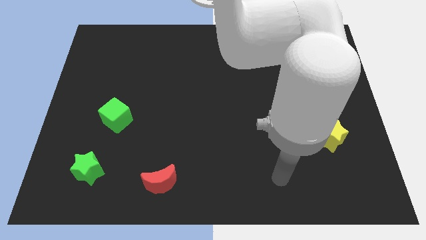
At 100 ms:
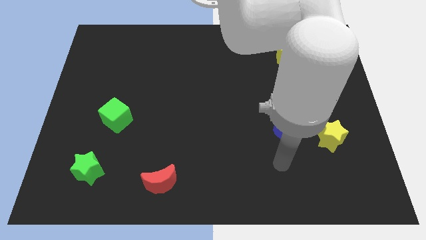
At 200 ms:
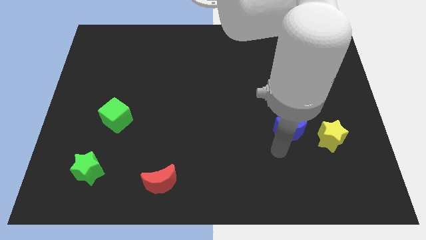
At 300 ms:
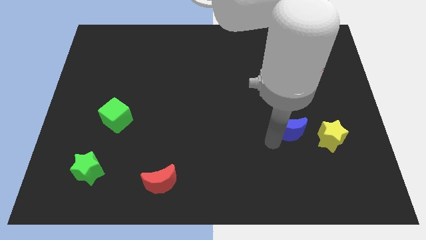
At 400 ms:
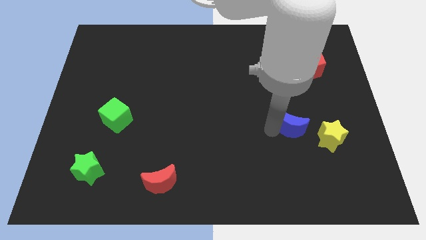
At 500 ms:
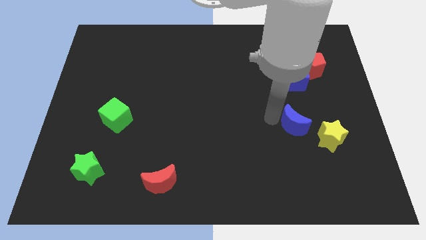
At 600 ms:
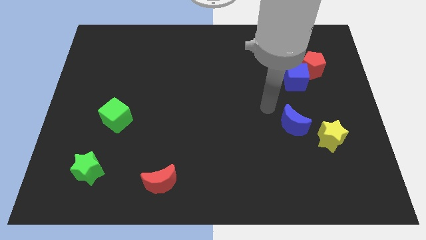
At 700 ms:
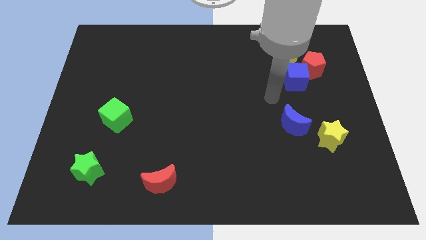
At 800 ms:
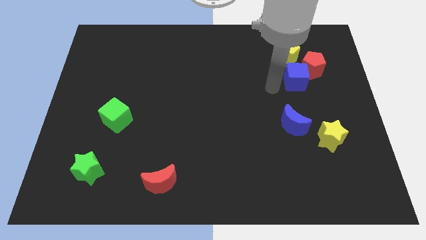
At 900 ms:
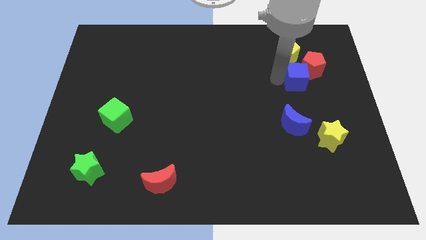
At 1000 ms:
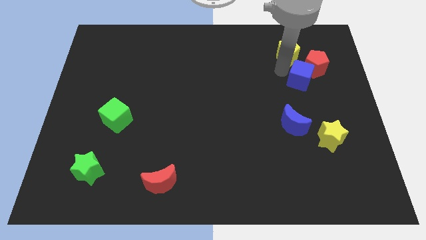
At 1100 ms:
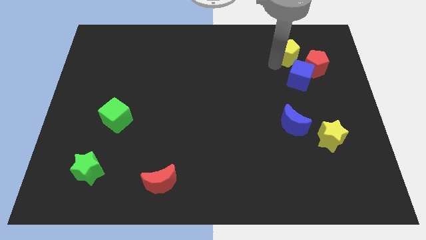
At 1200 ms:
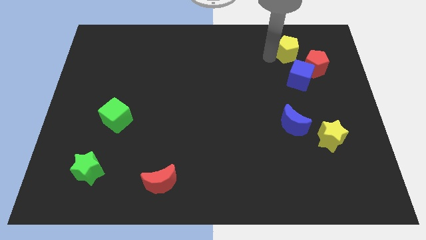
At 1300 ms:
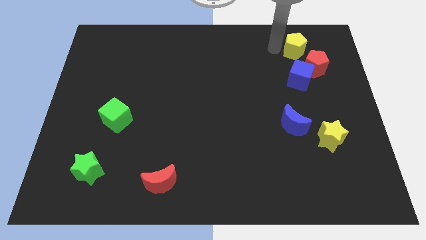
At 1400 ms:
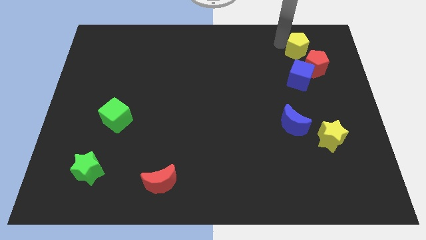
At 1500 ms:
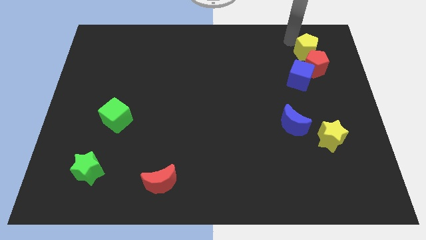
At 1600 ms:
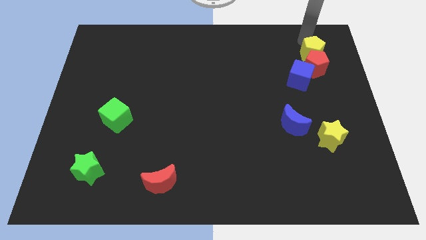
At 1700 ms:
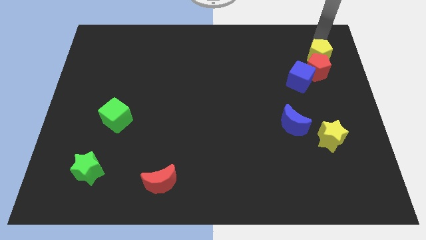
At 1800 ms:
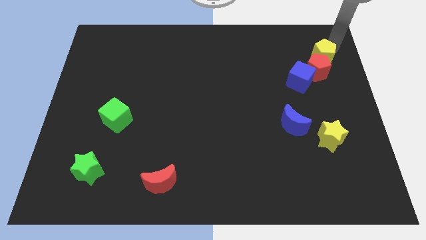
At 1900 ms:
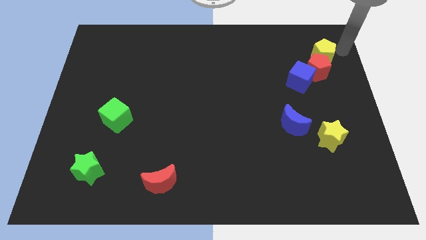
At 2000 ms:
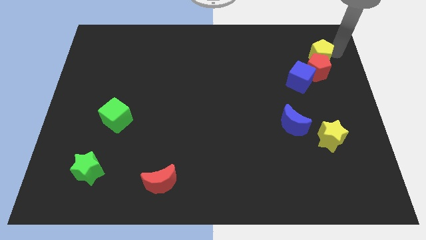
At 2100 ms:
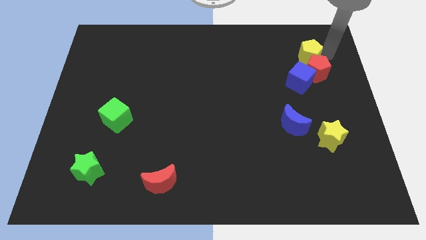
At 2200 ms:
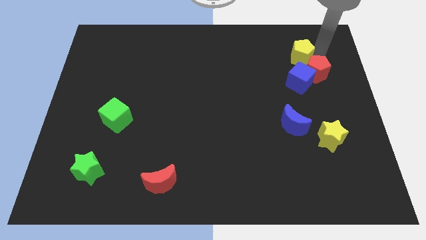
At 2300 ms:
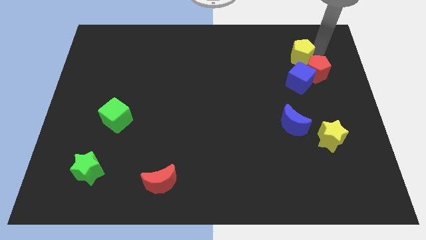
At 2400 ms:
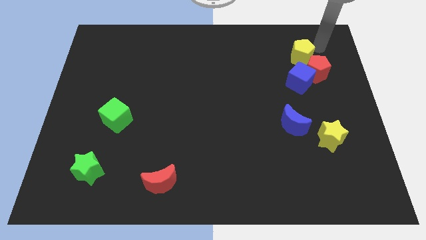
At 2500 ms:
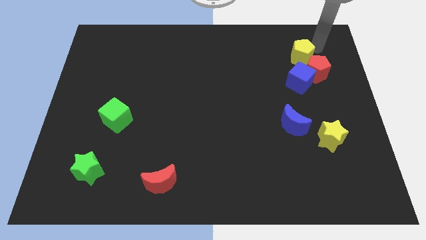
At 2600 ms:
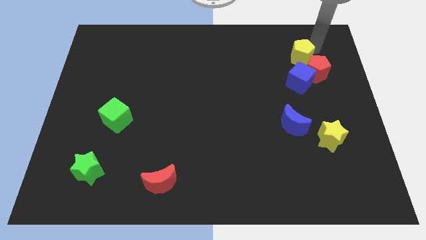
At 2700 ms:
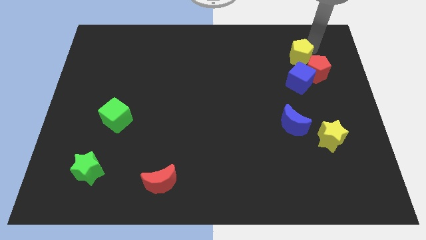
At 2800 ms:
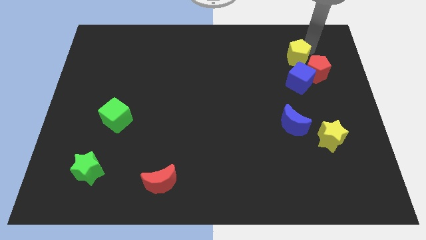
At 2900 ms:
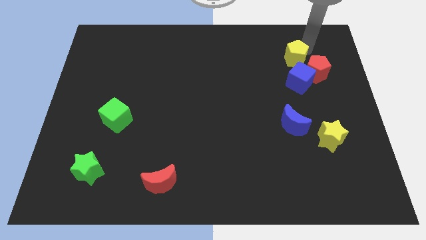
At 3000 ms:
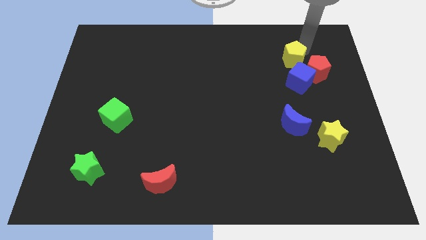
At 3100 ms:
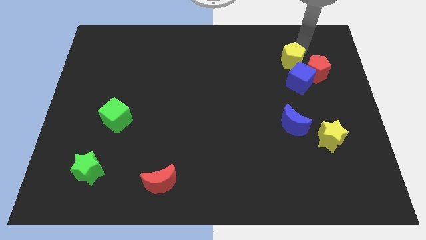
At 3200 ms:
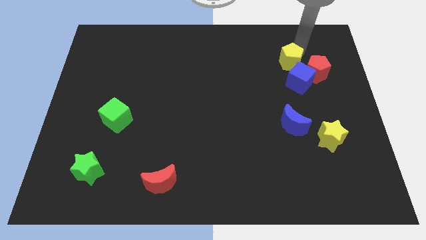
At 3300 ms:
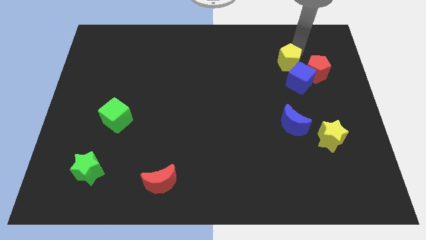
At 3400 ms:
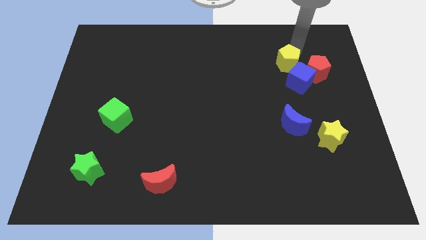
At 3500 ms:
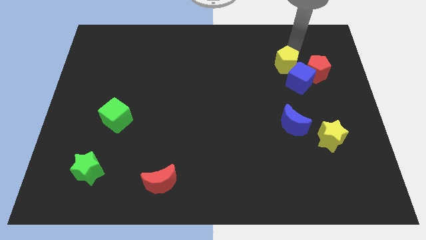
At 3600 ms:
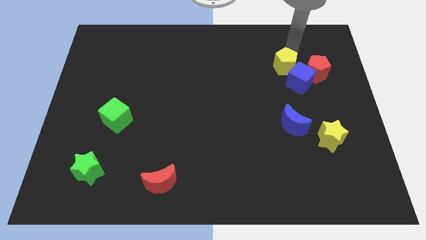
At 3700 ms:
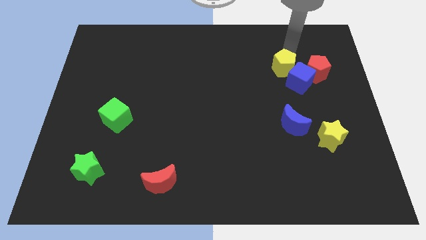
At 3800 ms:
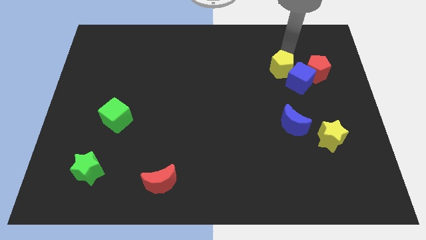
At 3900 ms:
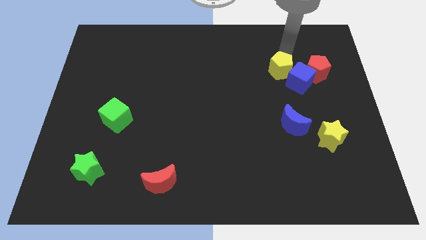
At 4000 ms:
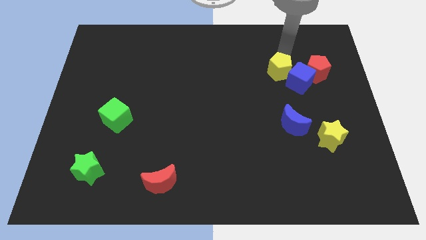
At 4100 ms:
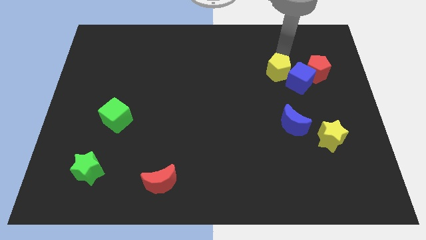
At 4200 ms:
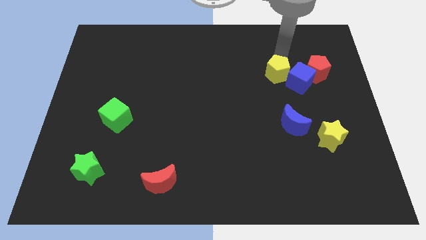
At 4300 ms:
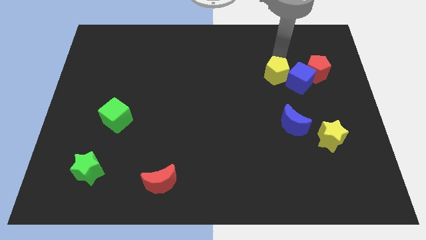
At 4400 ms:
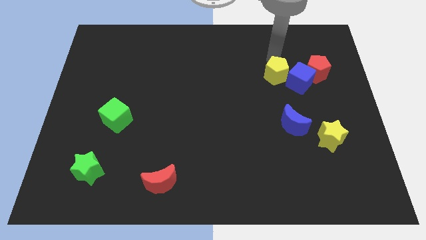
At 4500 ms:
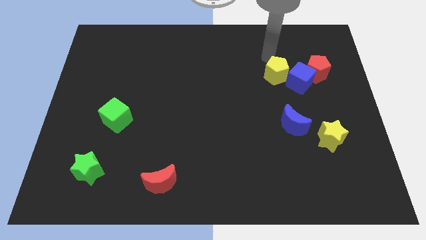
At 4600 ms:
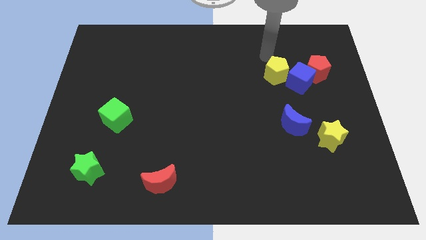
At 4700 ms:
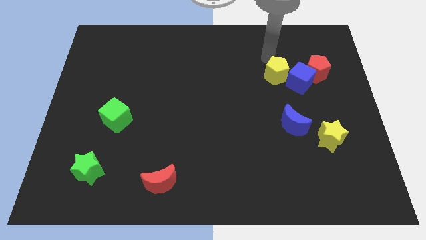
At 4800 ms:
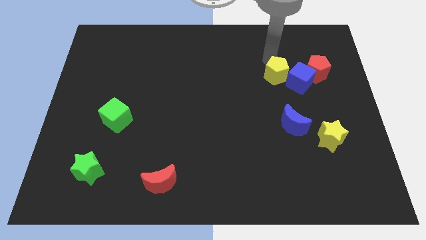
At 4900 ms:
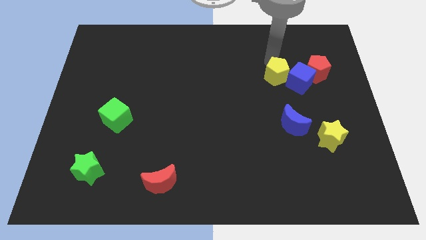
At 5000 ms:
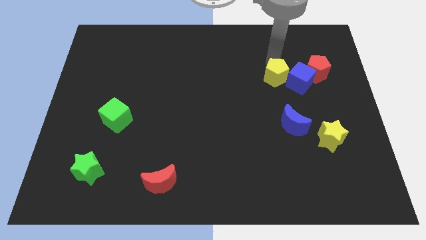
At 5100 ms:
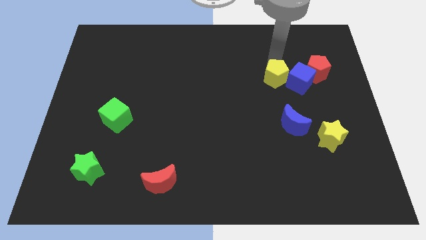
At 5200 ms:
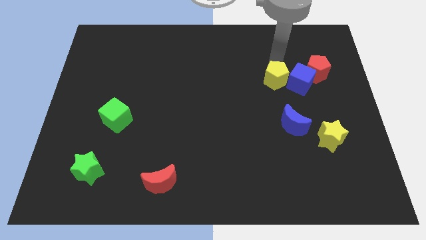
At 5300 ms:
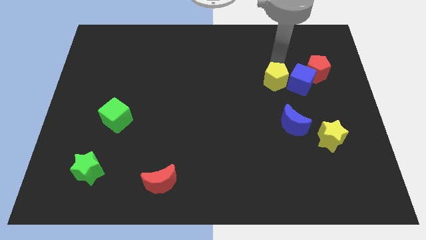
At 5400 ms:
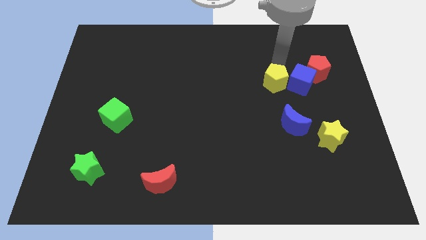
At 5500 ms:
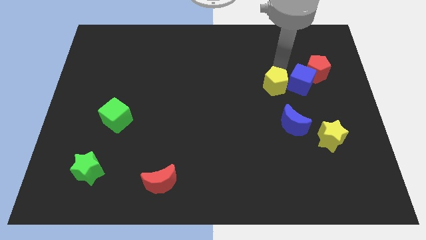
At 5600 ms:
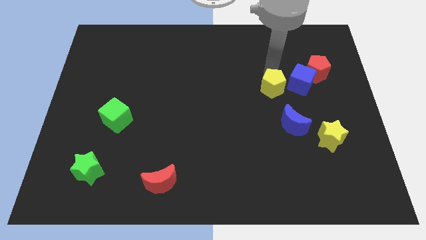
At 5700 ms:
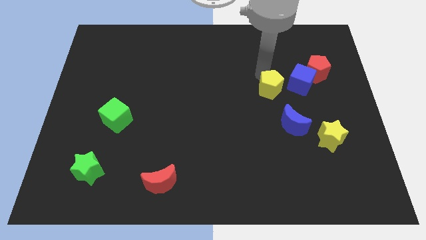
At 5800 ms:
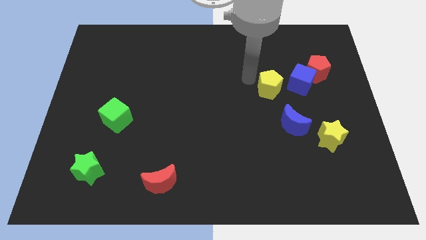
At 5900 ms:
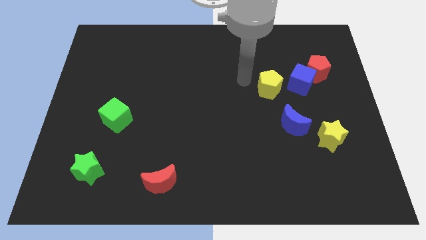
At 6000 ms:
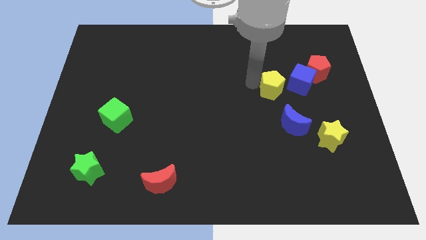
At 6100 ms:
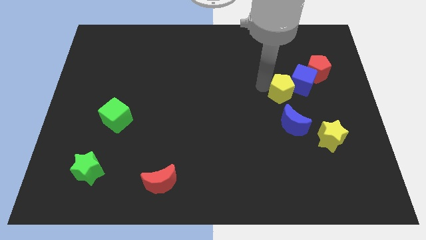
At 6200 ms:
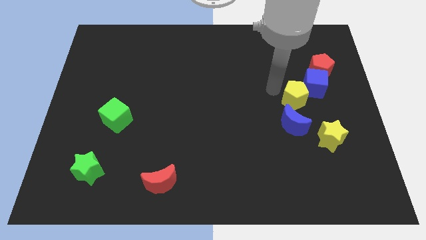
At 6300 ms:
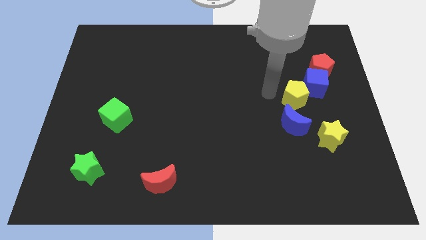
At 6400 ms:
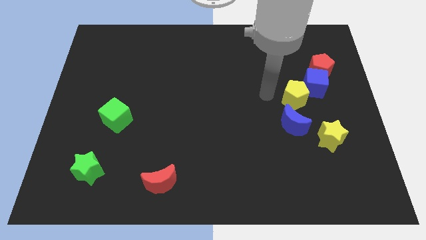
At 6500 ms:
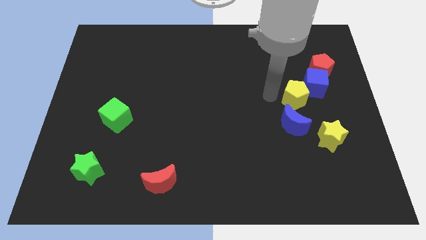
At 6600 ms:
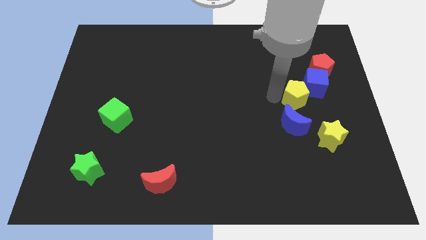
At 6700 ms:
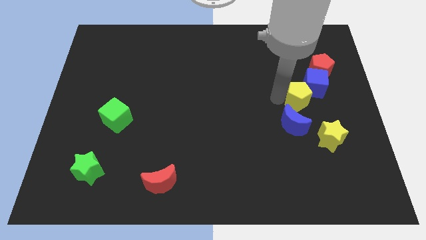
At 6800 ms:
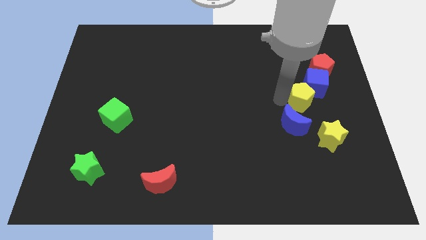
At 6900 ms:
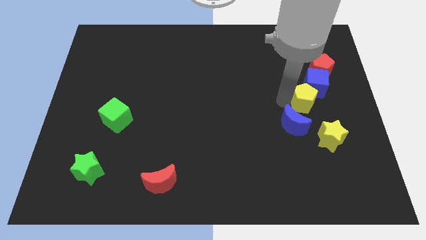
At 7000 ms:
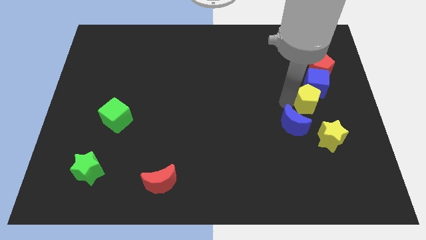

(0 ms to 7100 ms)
move the yellow pentagon to the bottom of the red pentagon
